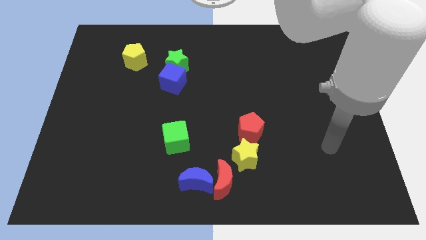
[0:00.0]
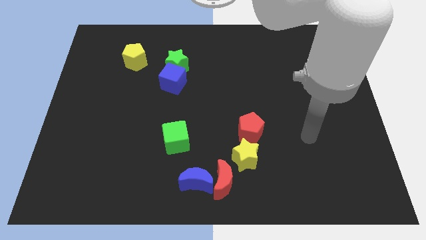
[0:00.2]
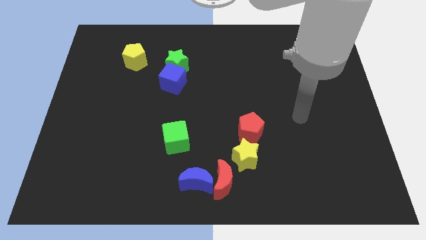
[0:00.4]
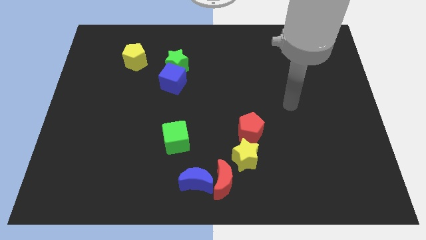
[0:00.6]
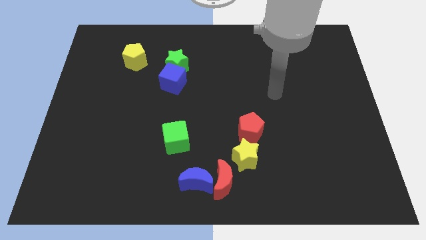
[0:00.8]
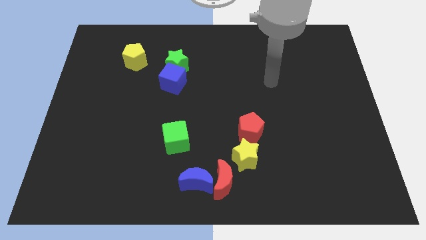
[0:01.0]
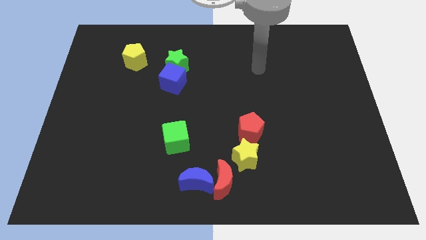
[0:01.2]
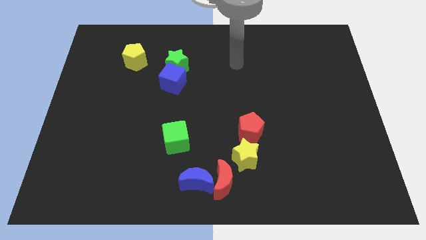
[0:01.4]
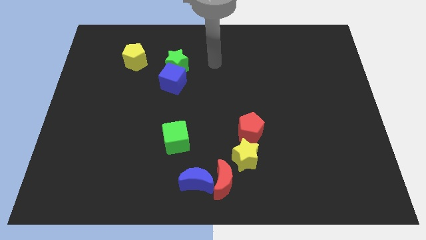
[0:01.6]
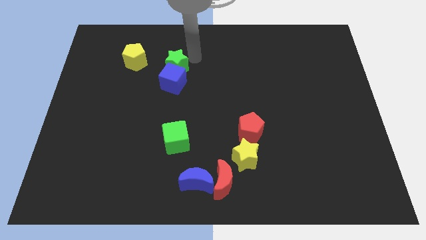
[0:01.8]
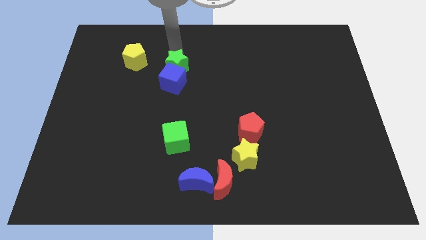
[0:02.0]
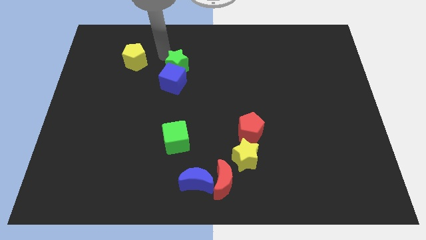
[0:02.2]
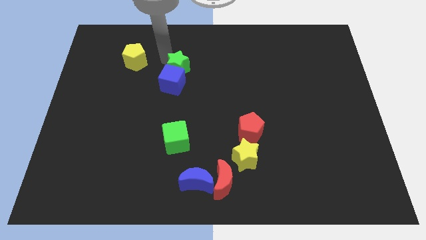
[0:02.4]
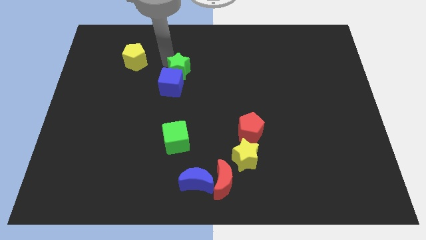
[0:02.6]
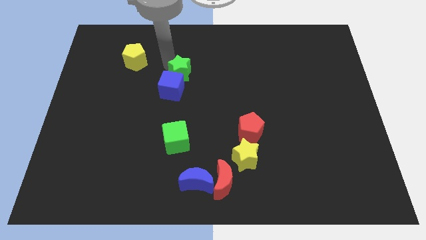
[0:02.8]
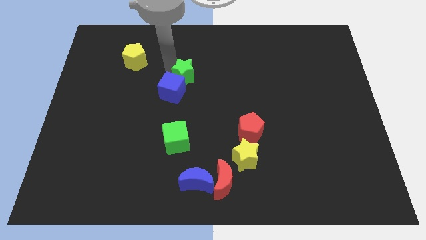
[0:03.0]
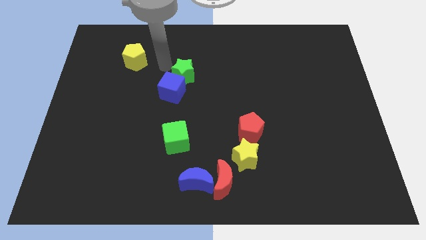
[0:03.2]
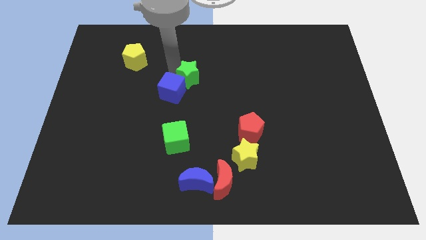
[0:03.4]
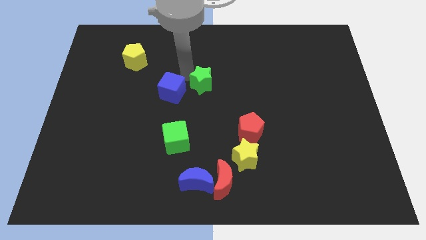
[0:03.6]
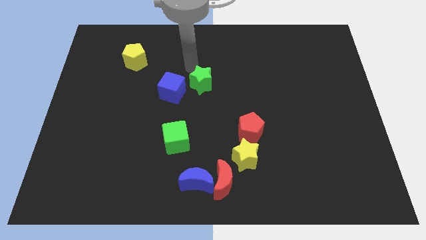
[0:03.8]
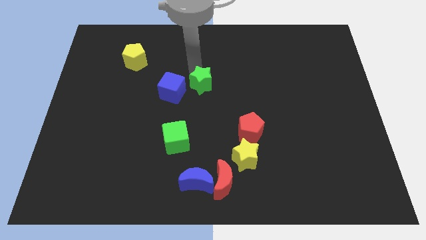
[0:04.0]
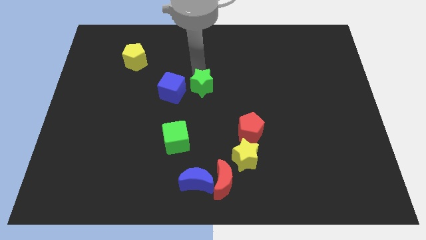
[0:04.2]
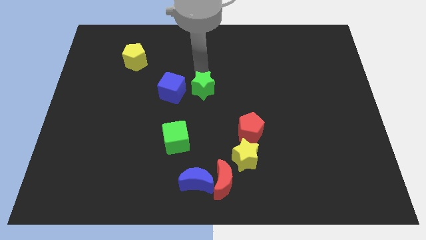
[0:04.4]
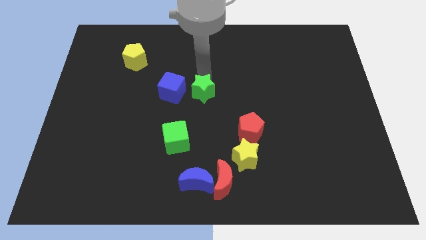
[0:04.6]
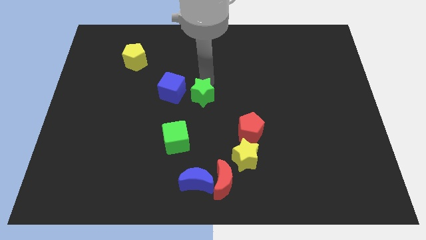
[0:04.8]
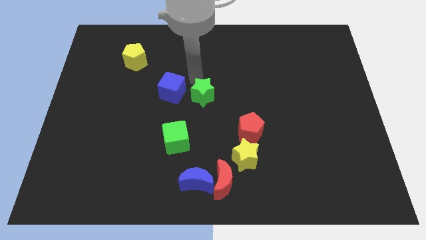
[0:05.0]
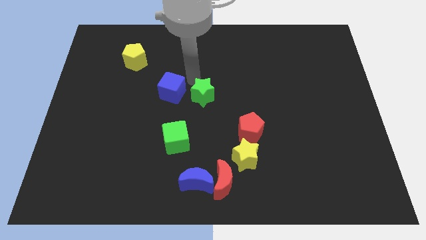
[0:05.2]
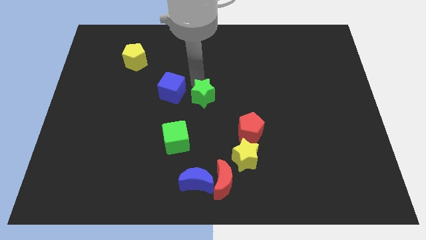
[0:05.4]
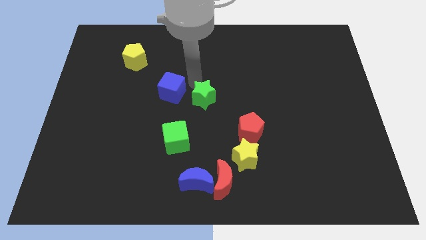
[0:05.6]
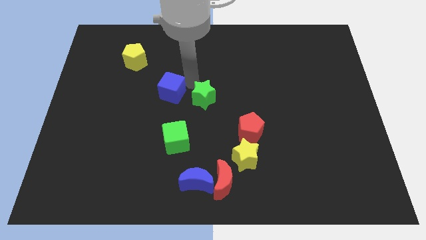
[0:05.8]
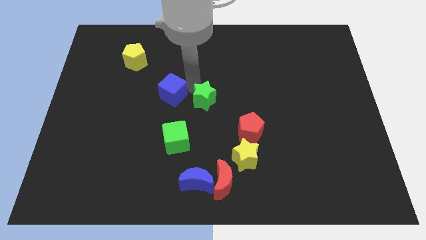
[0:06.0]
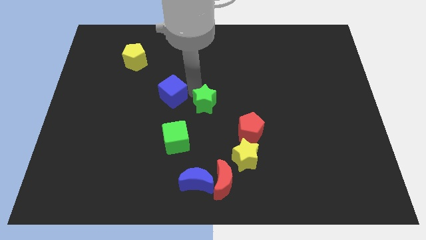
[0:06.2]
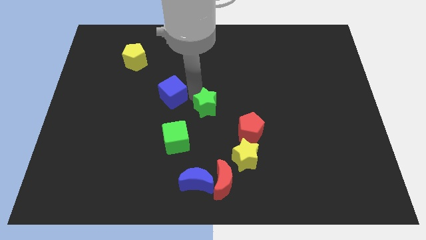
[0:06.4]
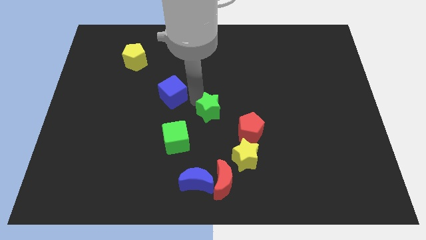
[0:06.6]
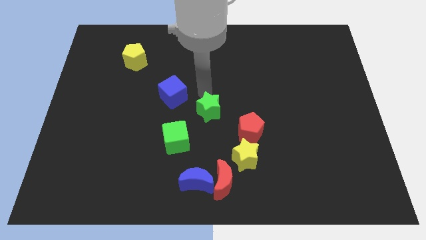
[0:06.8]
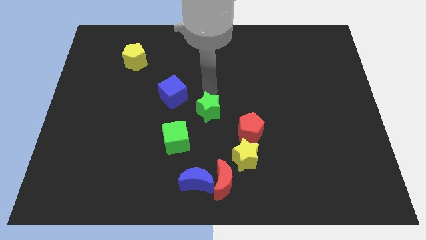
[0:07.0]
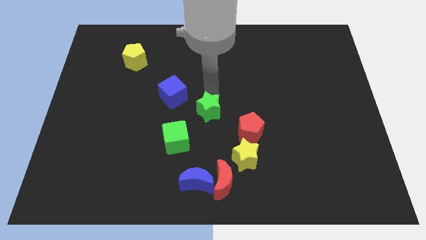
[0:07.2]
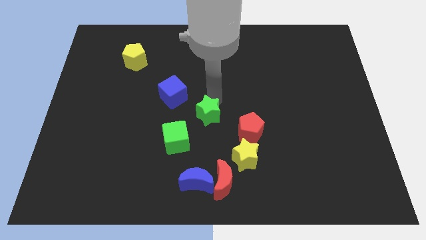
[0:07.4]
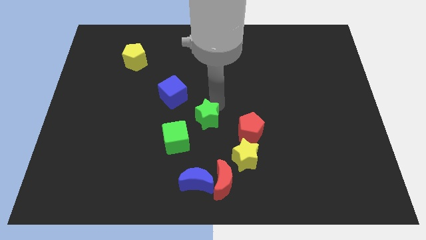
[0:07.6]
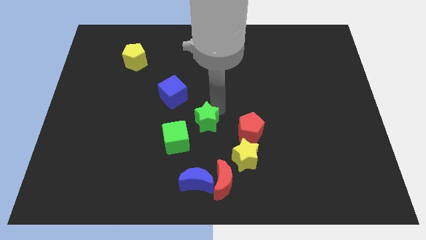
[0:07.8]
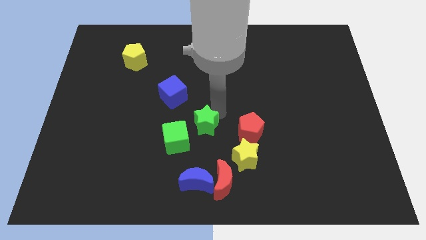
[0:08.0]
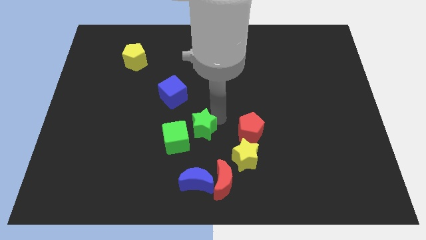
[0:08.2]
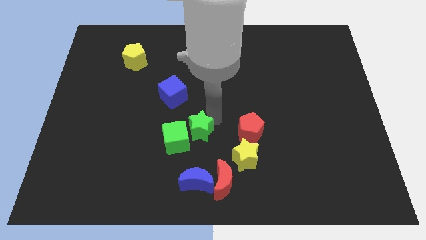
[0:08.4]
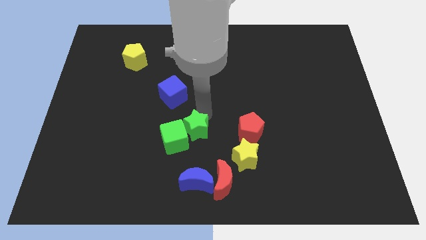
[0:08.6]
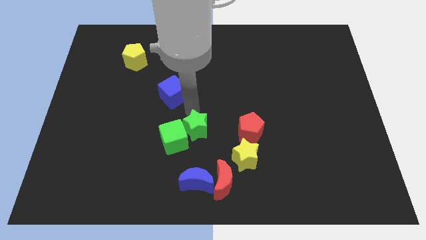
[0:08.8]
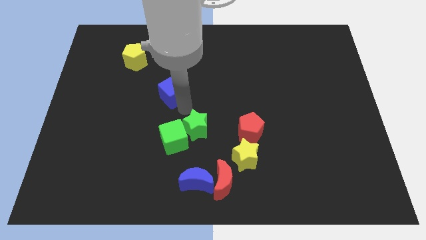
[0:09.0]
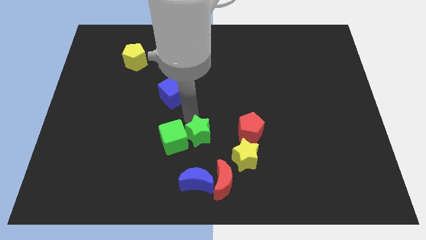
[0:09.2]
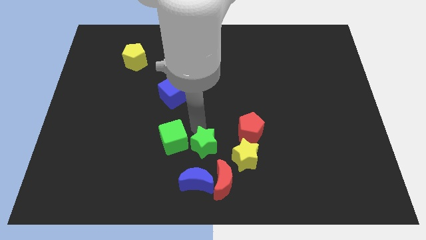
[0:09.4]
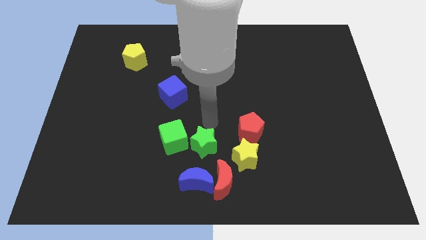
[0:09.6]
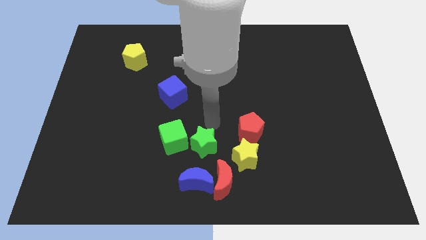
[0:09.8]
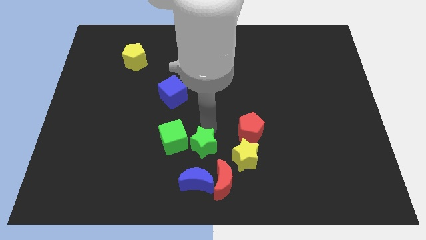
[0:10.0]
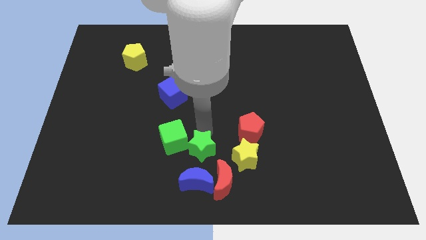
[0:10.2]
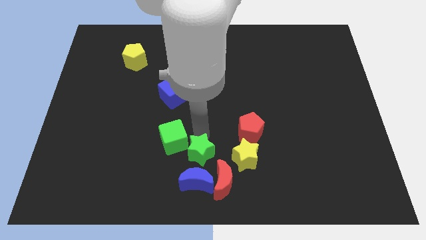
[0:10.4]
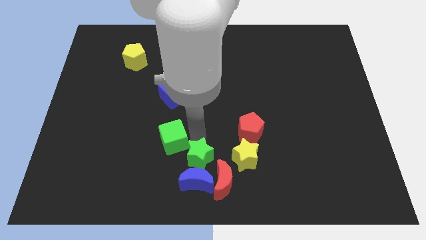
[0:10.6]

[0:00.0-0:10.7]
slide the green star close to the blue moon

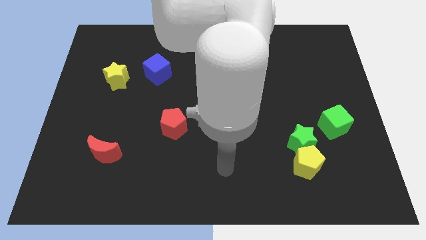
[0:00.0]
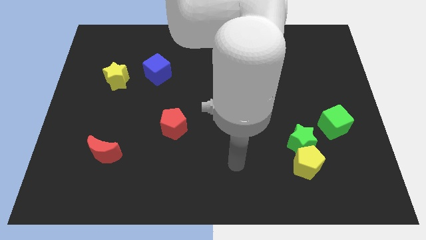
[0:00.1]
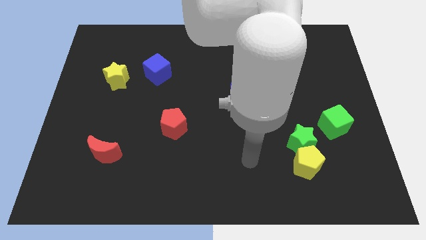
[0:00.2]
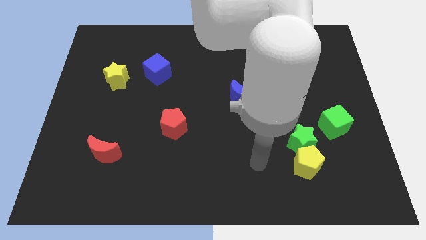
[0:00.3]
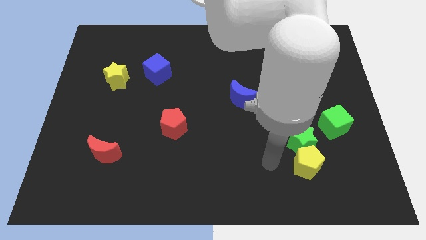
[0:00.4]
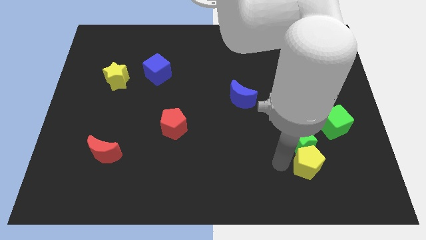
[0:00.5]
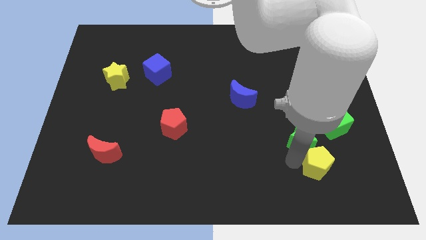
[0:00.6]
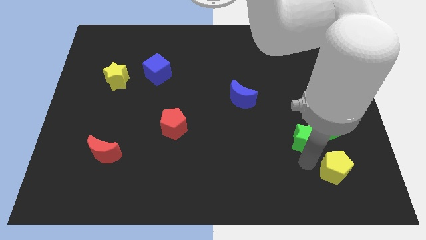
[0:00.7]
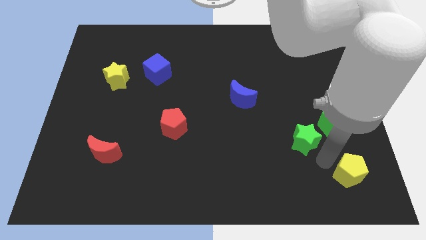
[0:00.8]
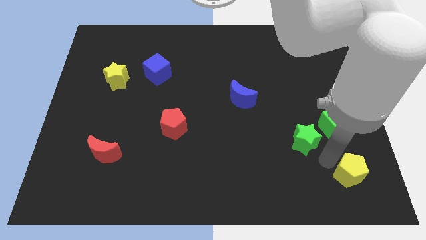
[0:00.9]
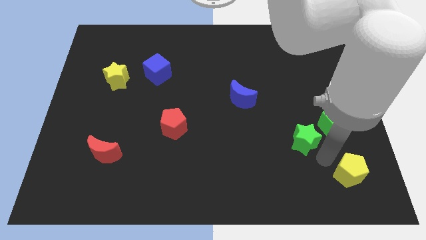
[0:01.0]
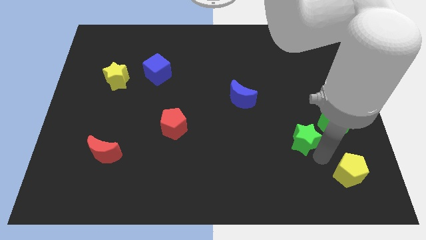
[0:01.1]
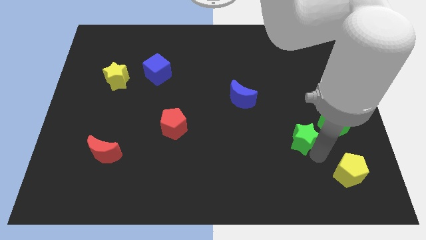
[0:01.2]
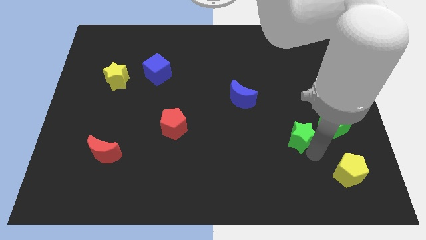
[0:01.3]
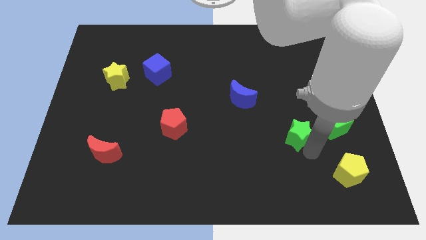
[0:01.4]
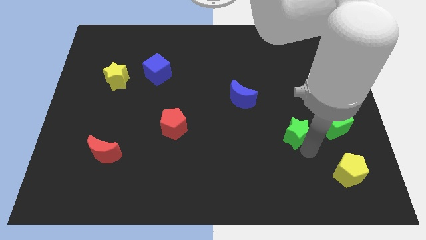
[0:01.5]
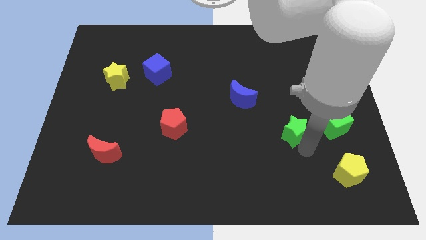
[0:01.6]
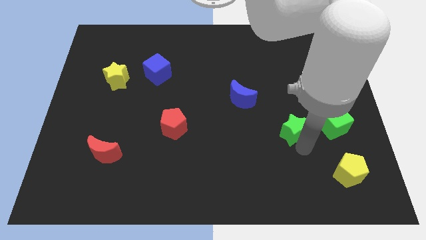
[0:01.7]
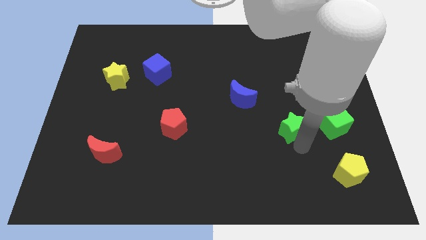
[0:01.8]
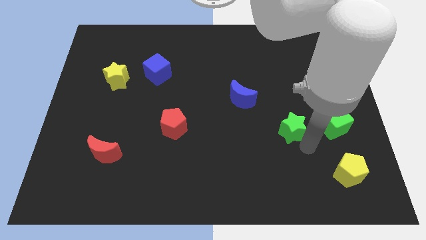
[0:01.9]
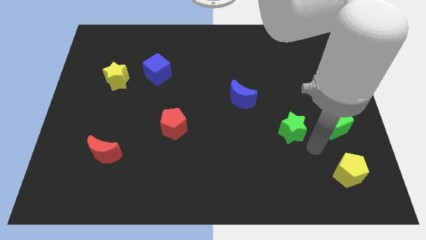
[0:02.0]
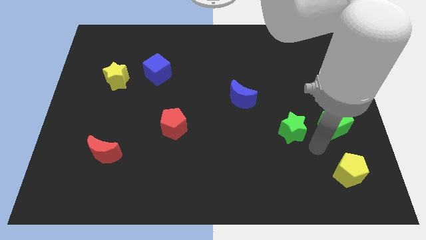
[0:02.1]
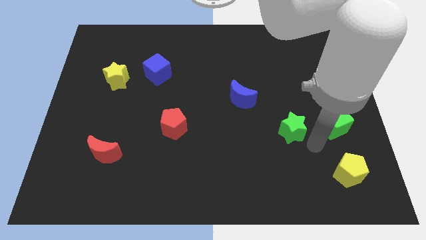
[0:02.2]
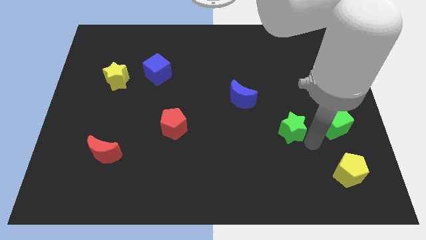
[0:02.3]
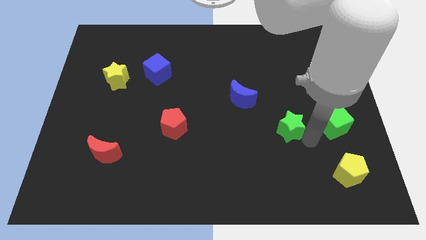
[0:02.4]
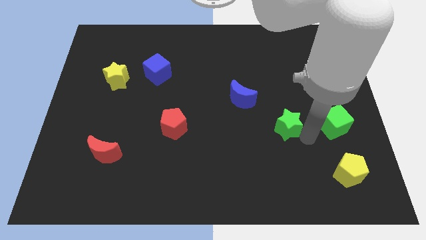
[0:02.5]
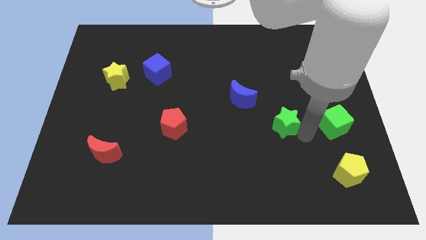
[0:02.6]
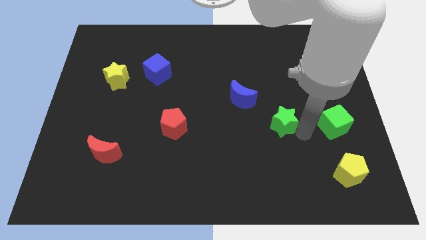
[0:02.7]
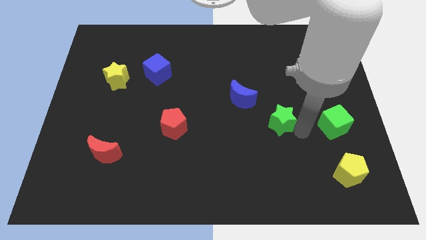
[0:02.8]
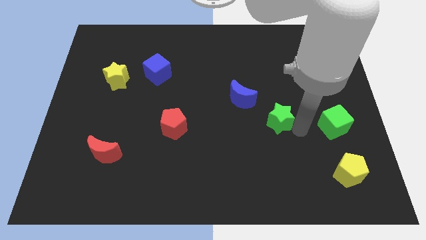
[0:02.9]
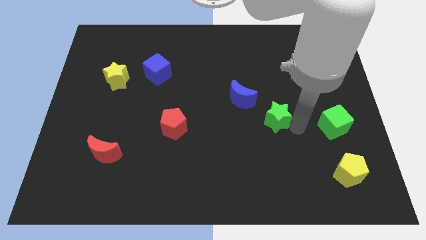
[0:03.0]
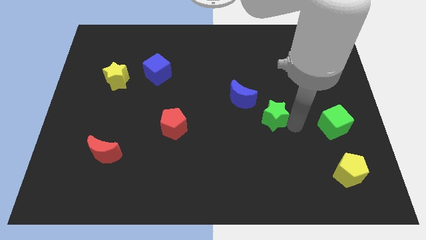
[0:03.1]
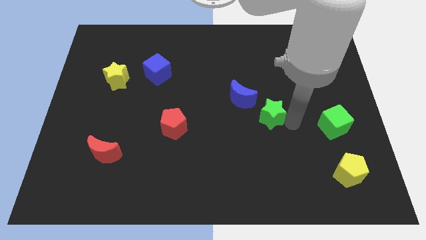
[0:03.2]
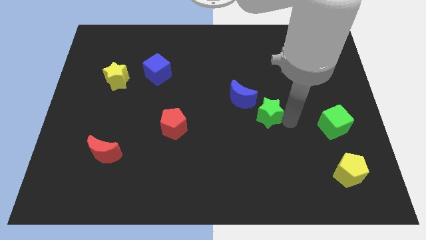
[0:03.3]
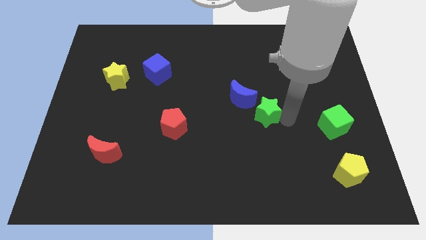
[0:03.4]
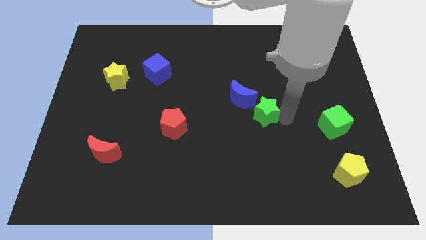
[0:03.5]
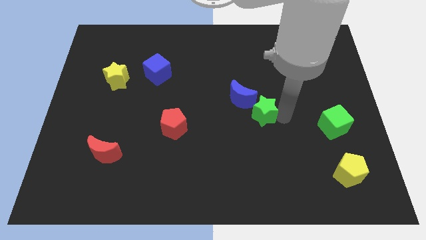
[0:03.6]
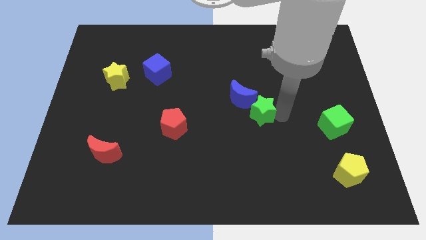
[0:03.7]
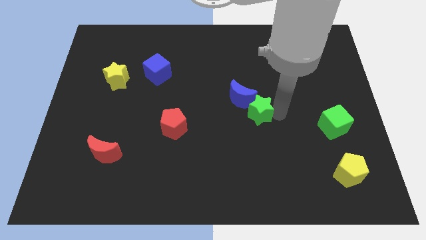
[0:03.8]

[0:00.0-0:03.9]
move the green star towards the blue moon
